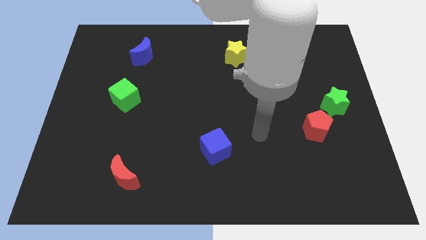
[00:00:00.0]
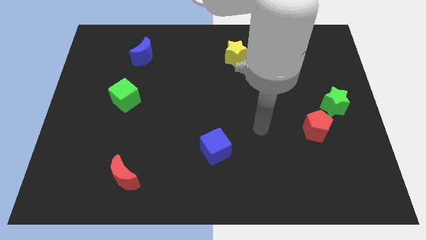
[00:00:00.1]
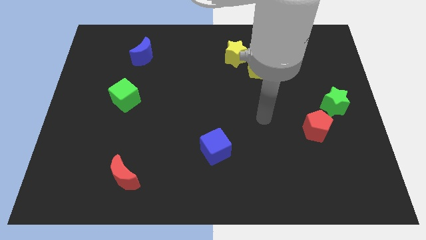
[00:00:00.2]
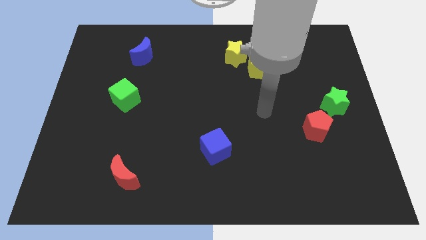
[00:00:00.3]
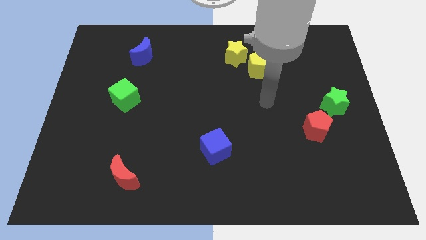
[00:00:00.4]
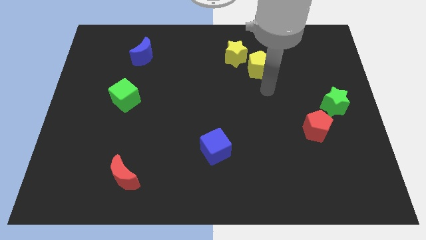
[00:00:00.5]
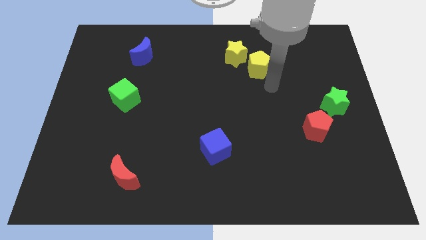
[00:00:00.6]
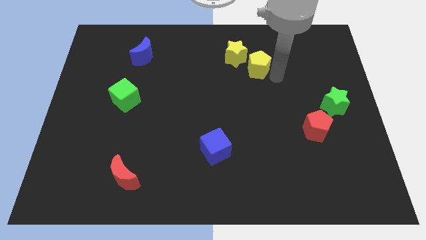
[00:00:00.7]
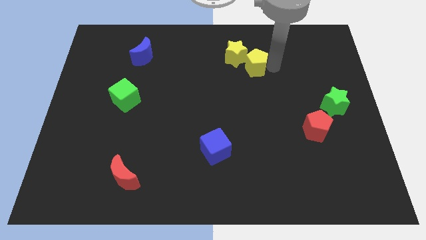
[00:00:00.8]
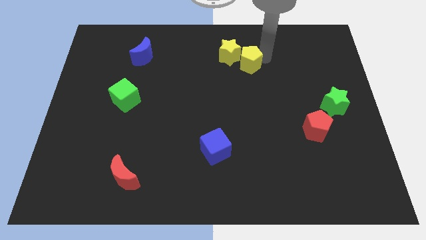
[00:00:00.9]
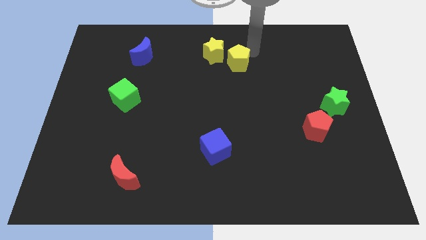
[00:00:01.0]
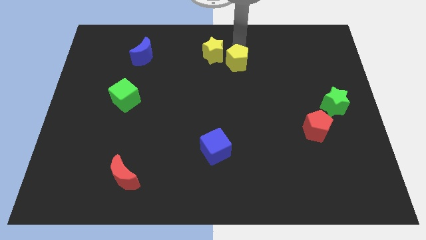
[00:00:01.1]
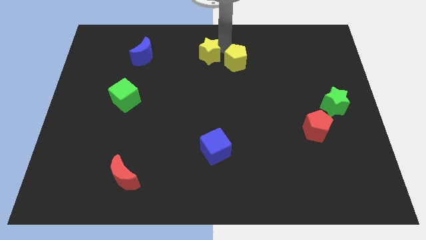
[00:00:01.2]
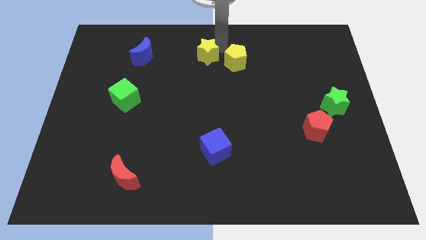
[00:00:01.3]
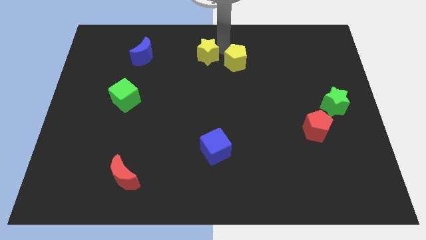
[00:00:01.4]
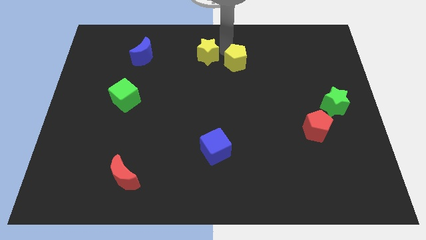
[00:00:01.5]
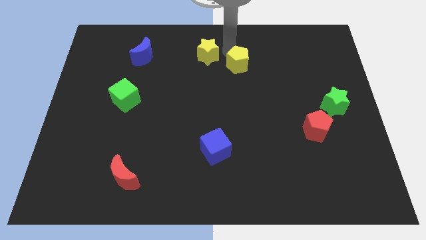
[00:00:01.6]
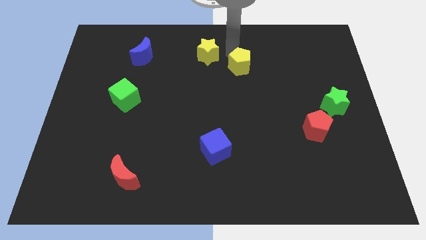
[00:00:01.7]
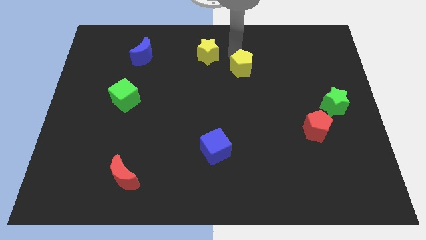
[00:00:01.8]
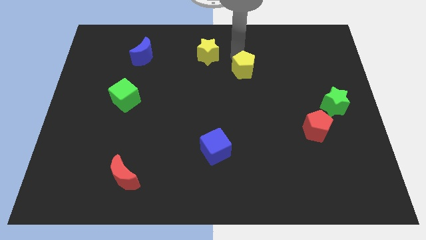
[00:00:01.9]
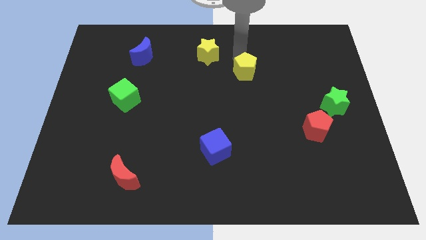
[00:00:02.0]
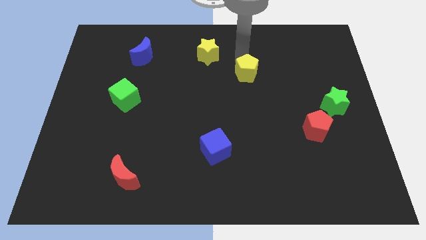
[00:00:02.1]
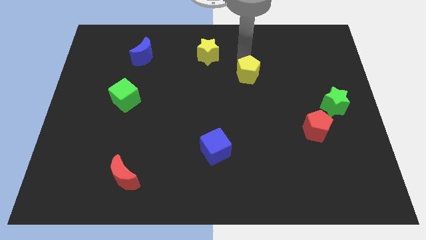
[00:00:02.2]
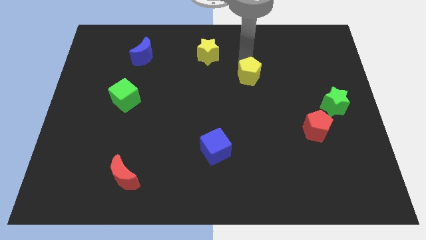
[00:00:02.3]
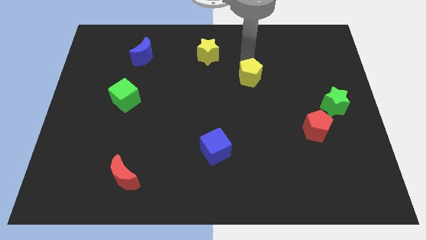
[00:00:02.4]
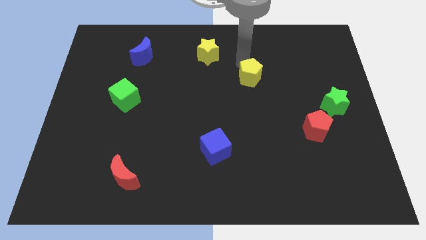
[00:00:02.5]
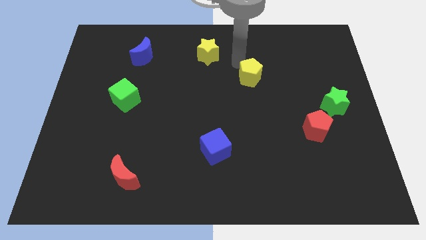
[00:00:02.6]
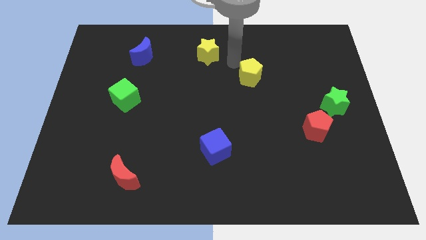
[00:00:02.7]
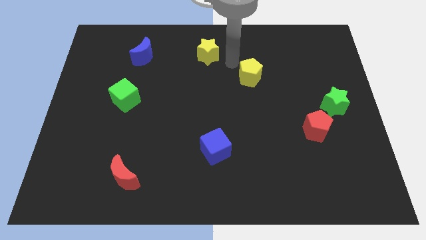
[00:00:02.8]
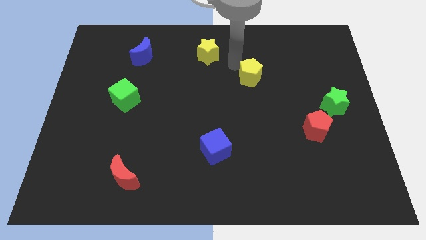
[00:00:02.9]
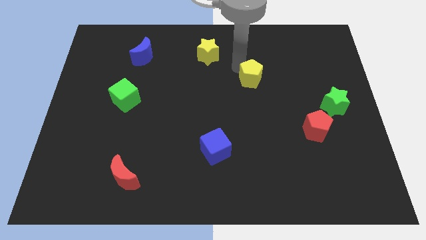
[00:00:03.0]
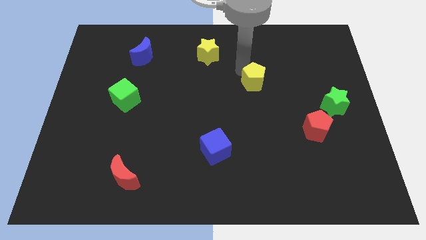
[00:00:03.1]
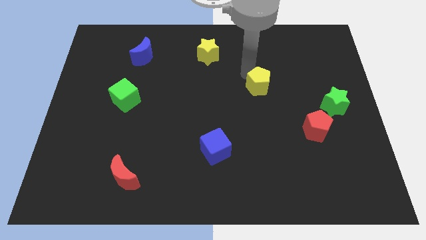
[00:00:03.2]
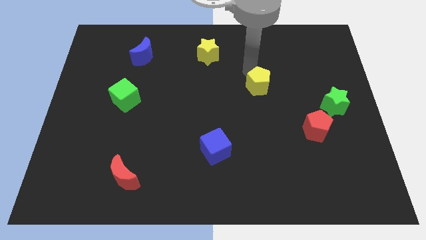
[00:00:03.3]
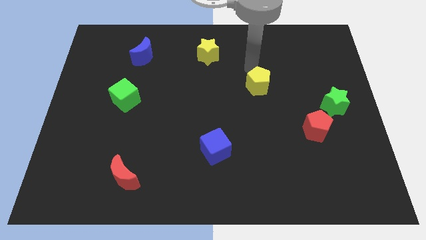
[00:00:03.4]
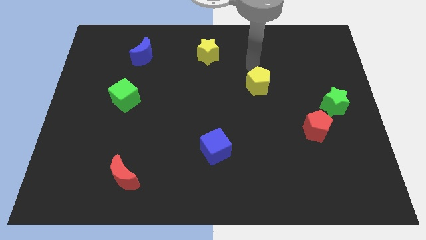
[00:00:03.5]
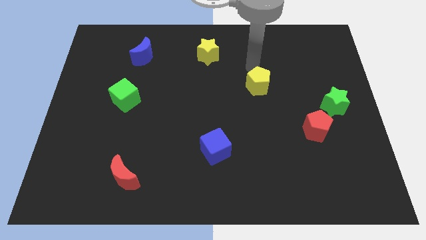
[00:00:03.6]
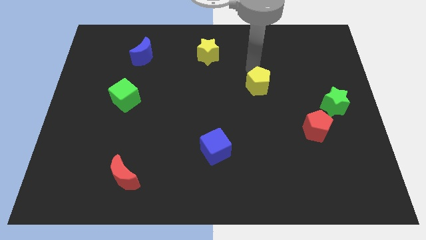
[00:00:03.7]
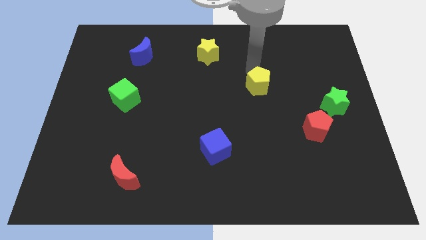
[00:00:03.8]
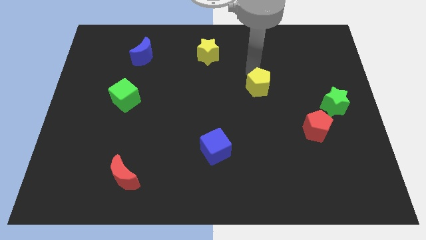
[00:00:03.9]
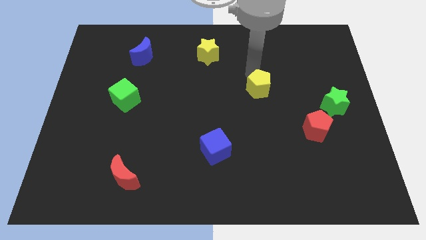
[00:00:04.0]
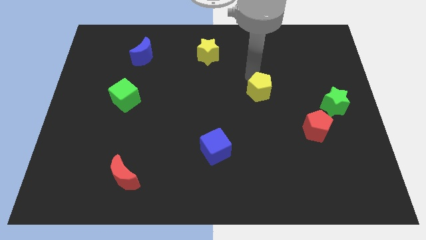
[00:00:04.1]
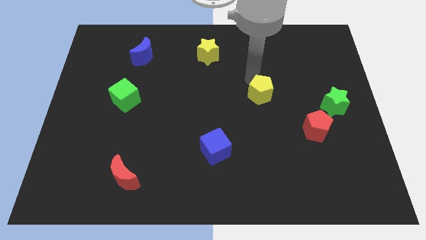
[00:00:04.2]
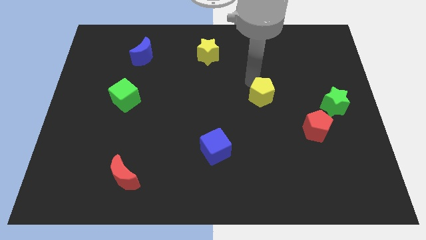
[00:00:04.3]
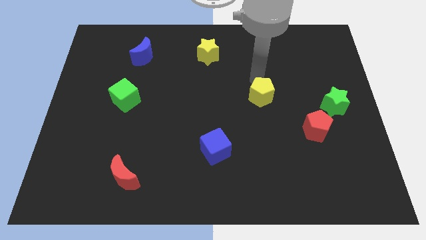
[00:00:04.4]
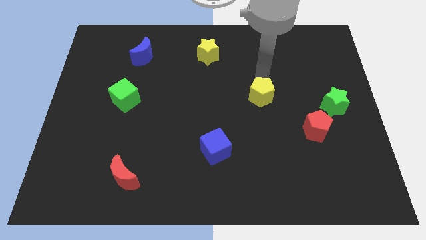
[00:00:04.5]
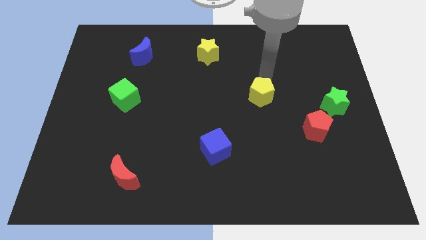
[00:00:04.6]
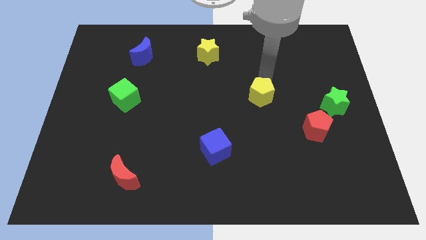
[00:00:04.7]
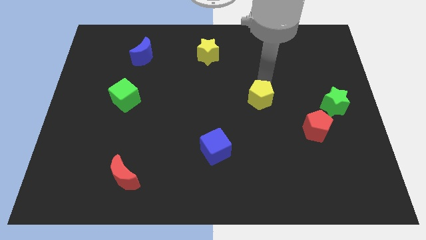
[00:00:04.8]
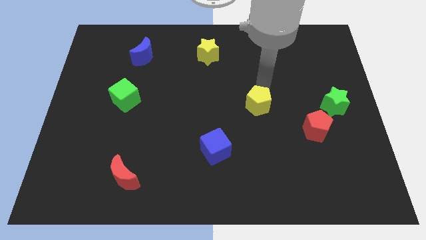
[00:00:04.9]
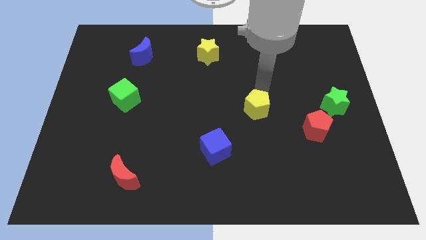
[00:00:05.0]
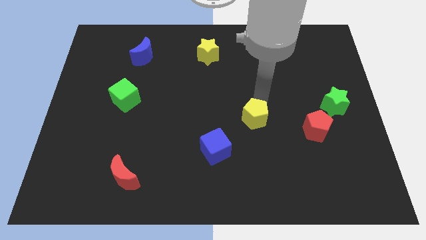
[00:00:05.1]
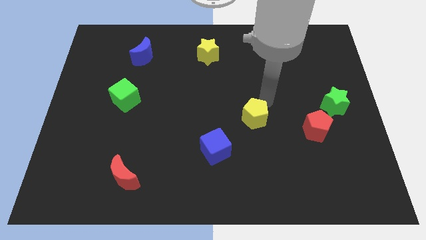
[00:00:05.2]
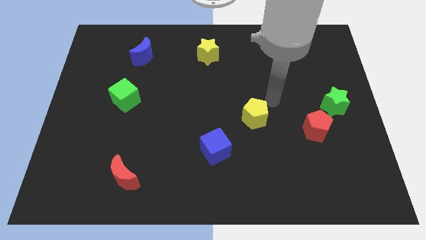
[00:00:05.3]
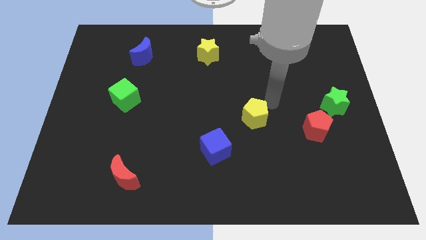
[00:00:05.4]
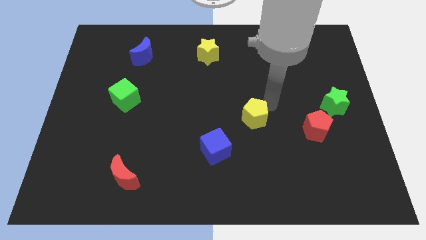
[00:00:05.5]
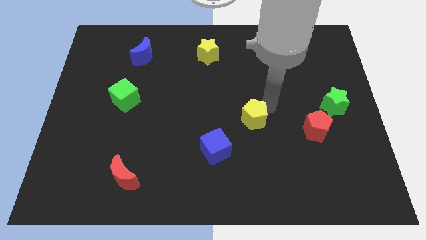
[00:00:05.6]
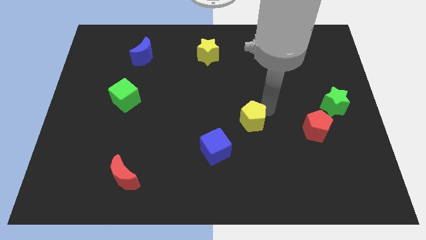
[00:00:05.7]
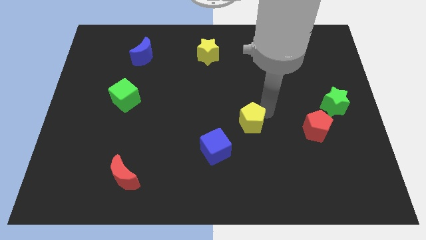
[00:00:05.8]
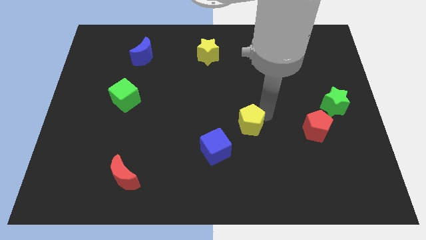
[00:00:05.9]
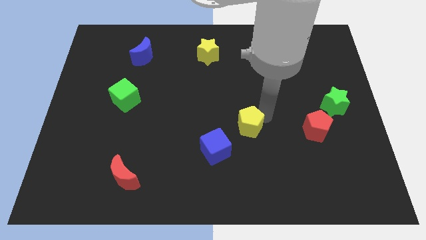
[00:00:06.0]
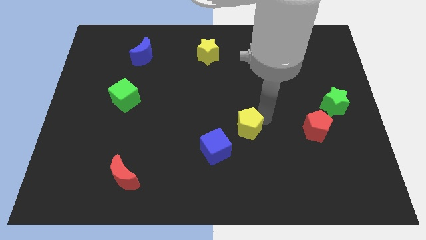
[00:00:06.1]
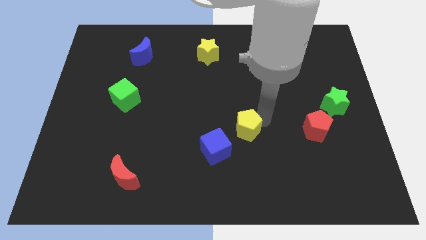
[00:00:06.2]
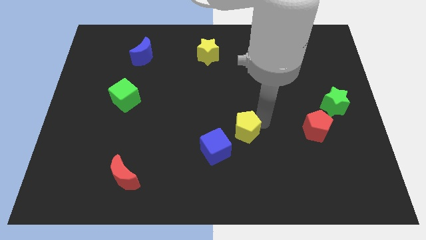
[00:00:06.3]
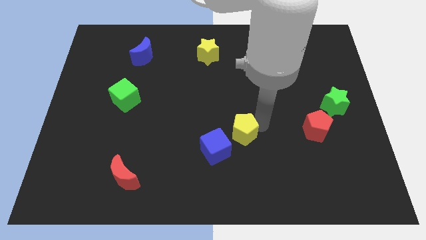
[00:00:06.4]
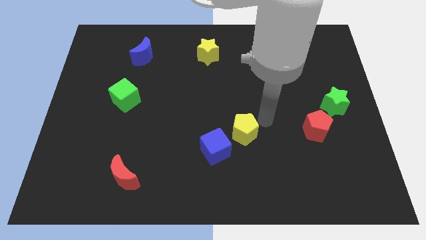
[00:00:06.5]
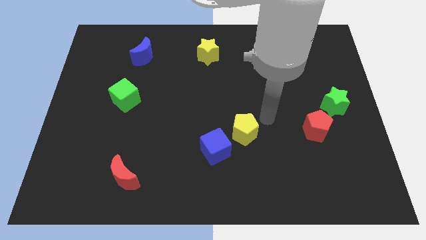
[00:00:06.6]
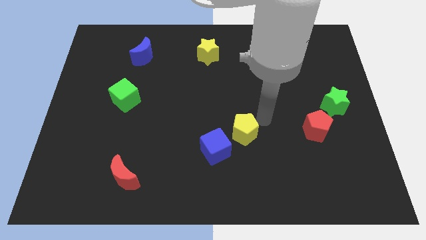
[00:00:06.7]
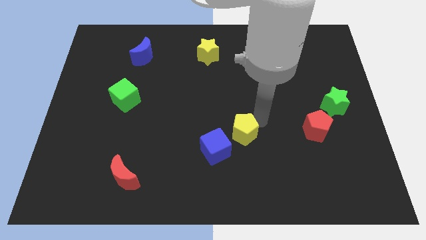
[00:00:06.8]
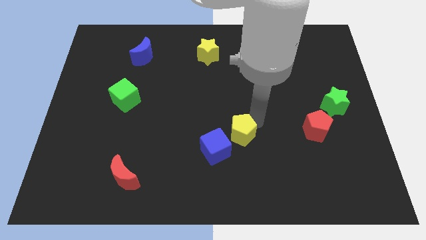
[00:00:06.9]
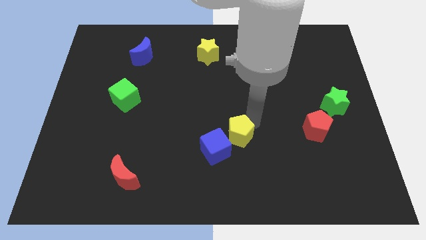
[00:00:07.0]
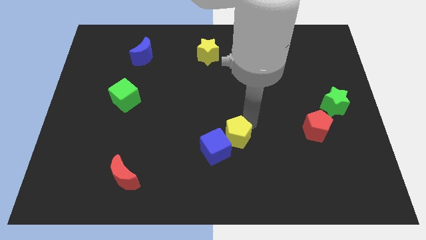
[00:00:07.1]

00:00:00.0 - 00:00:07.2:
push the yellow pentagon to the blue cube
